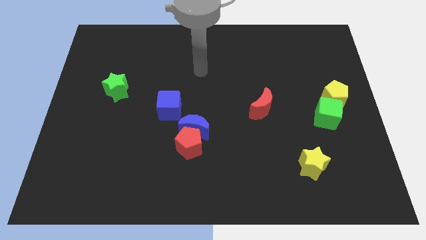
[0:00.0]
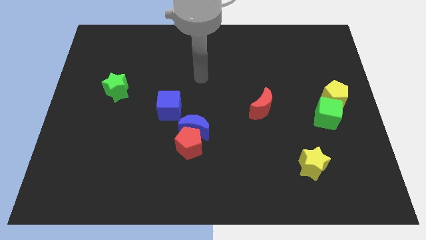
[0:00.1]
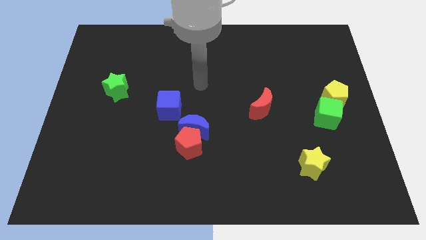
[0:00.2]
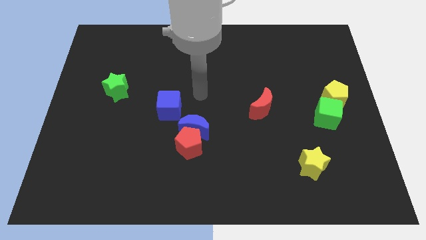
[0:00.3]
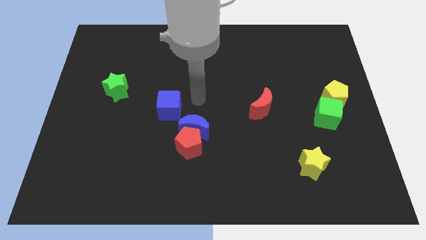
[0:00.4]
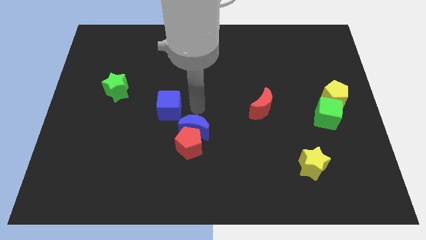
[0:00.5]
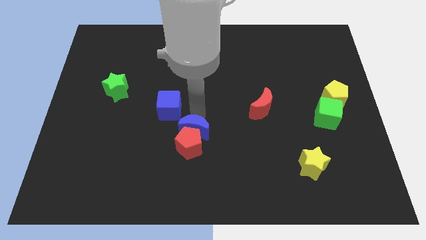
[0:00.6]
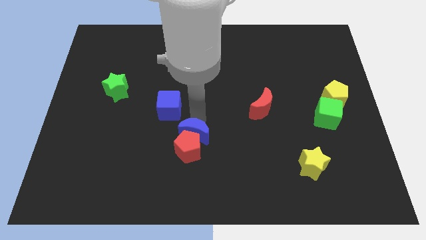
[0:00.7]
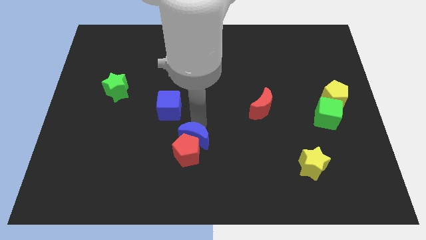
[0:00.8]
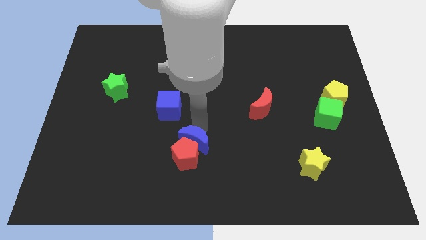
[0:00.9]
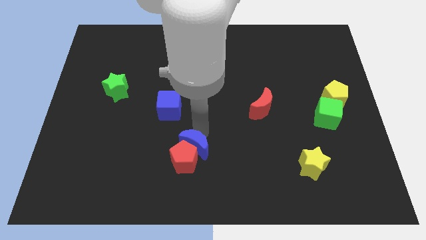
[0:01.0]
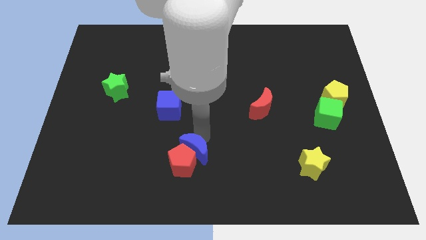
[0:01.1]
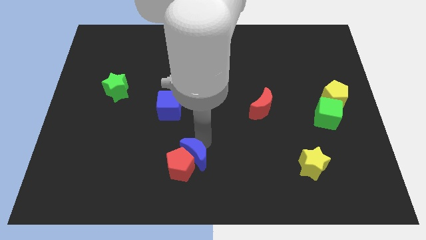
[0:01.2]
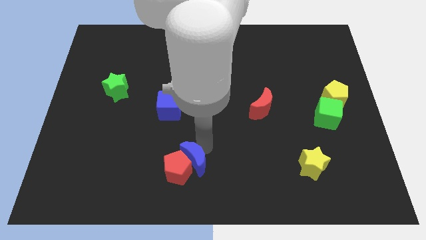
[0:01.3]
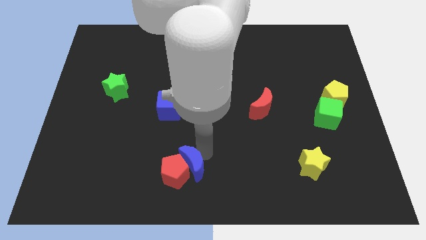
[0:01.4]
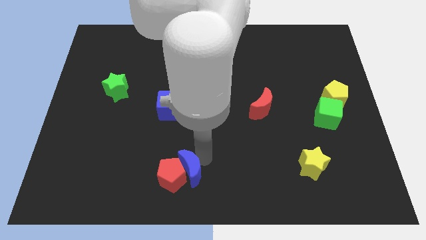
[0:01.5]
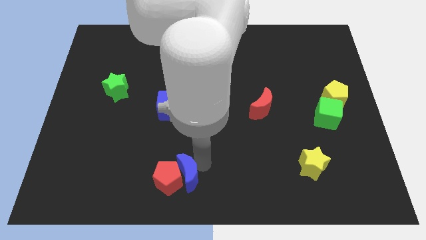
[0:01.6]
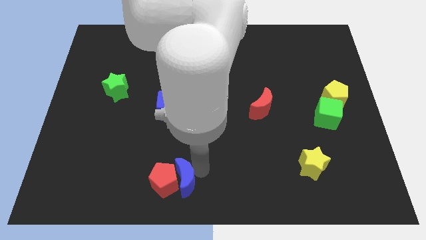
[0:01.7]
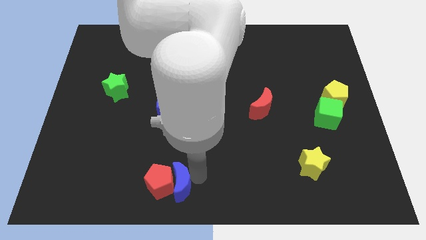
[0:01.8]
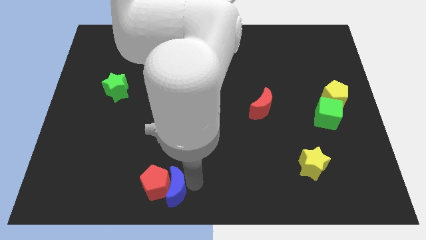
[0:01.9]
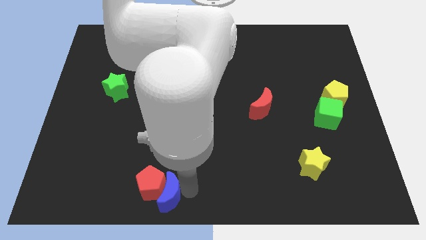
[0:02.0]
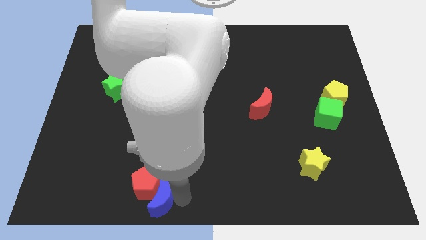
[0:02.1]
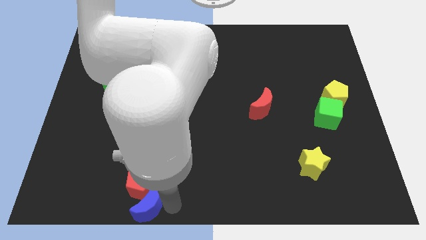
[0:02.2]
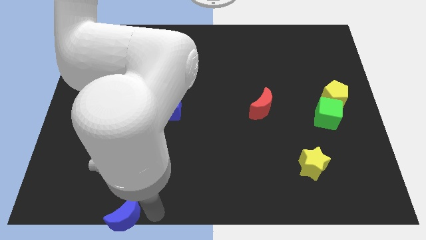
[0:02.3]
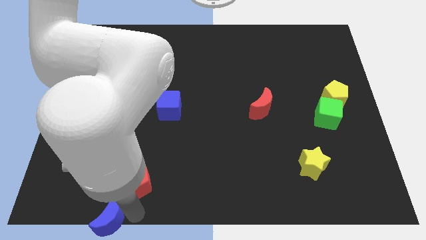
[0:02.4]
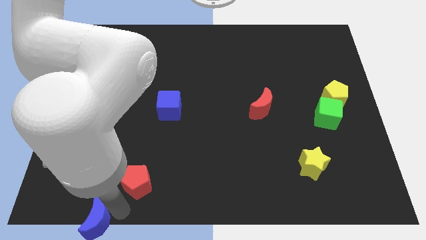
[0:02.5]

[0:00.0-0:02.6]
separate the red pentagon from the blue moon

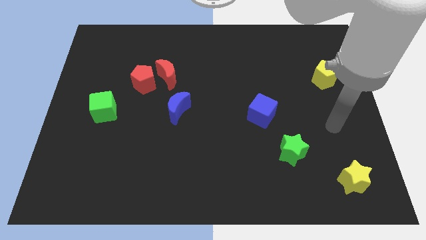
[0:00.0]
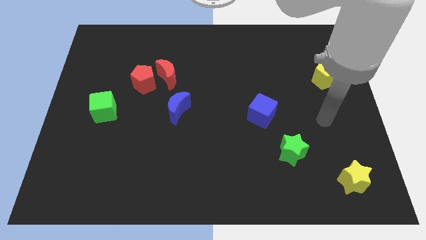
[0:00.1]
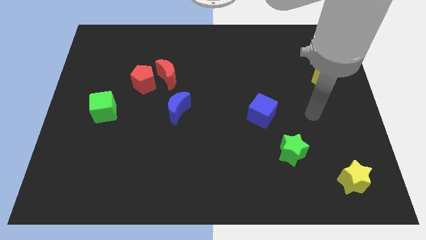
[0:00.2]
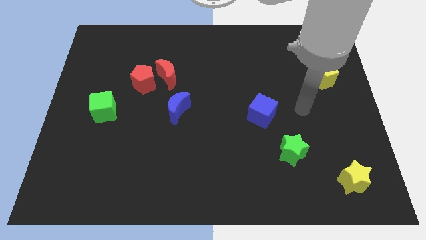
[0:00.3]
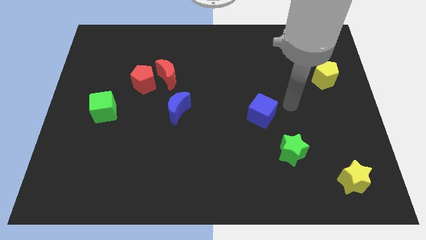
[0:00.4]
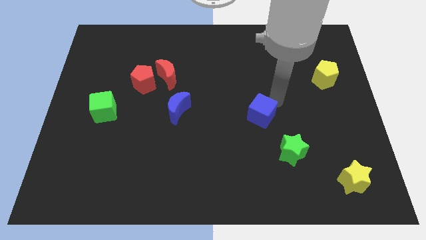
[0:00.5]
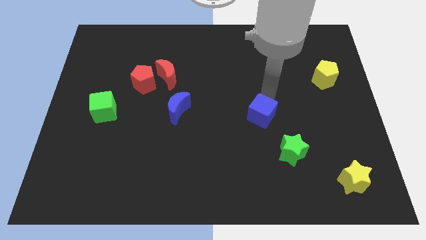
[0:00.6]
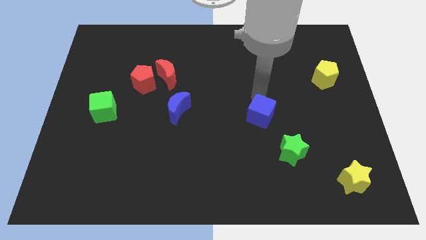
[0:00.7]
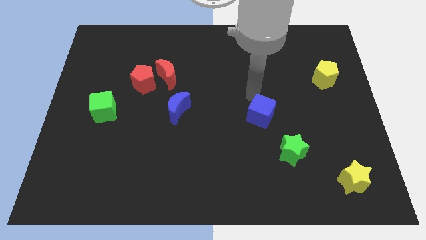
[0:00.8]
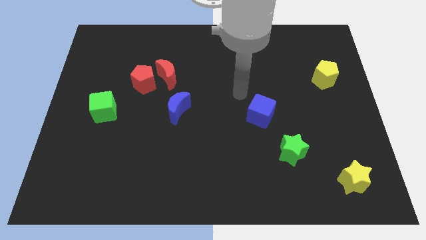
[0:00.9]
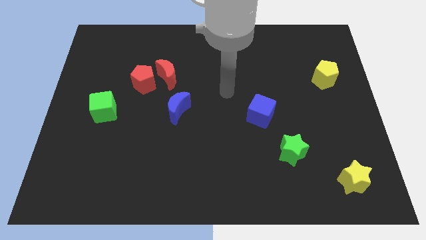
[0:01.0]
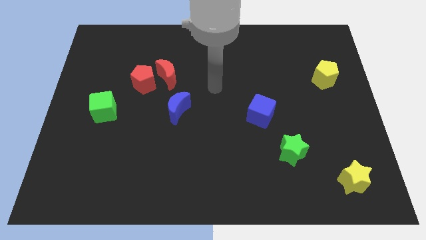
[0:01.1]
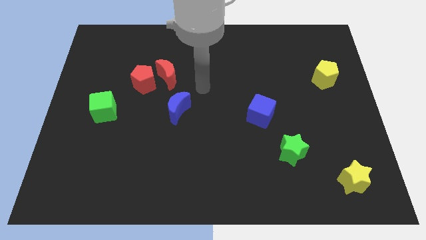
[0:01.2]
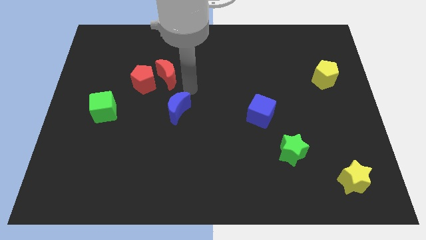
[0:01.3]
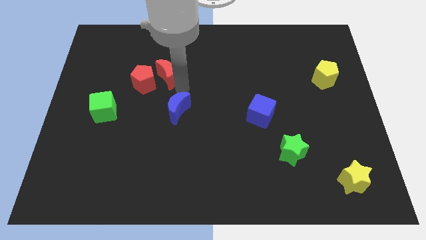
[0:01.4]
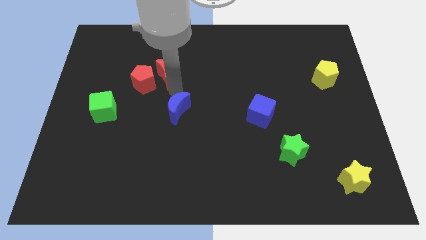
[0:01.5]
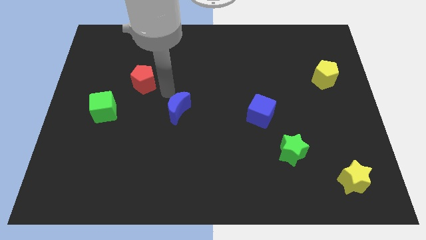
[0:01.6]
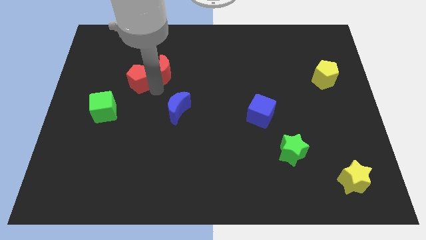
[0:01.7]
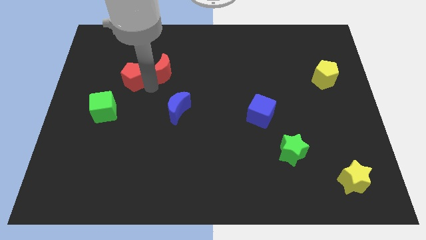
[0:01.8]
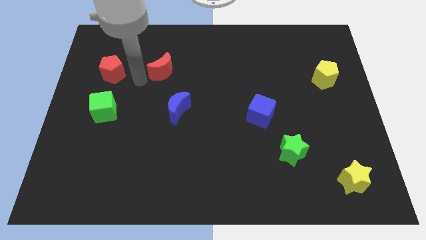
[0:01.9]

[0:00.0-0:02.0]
move the red moon away from the red pentagon

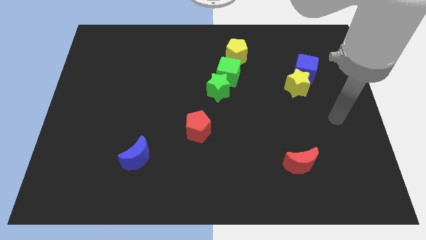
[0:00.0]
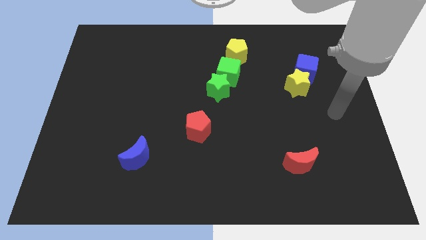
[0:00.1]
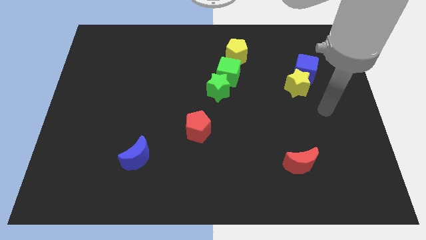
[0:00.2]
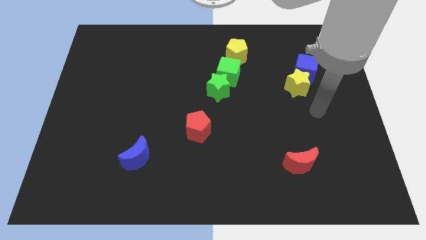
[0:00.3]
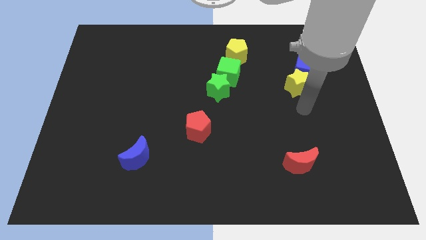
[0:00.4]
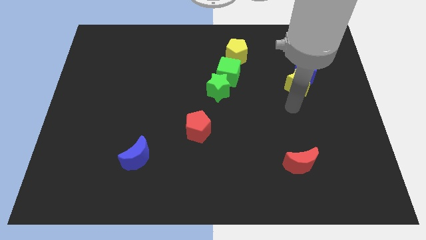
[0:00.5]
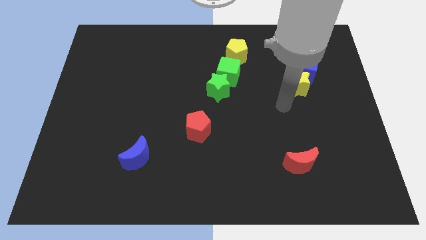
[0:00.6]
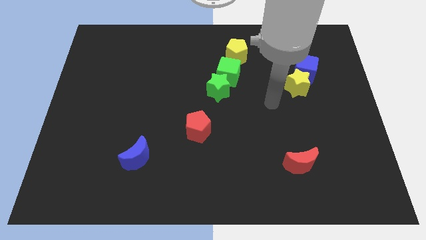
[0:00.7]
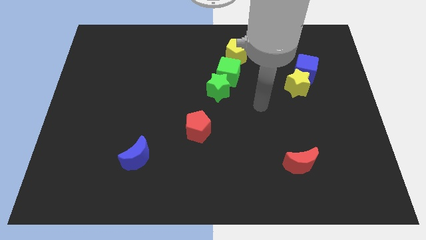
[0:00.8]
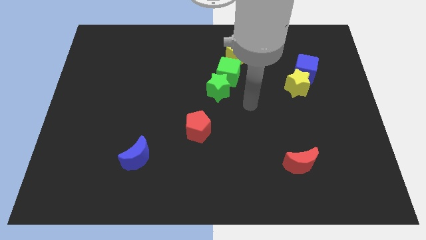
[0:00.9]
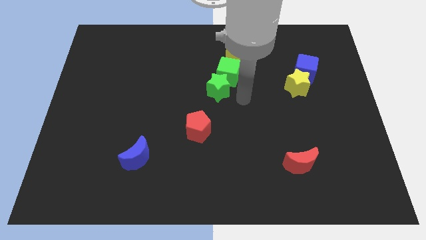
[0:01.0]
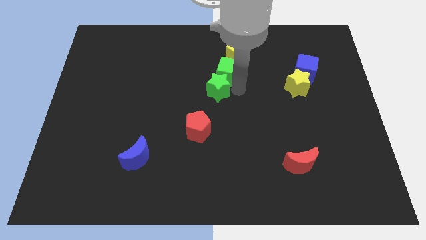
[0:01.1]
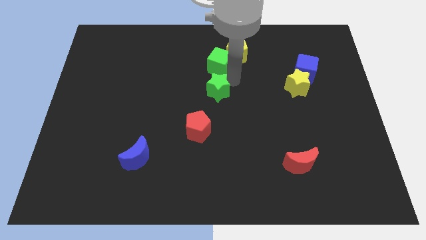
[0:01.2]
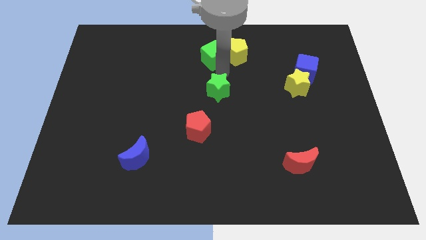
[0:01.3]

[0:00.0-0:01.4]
move the green star away from the green cube

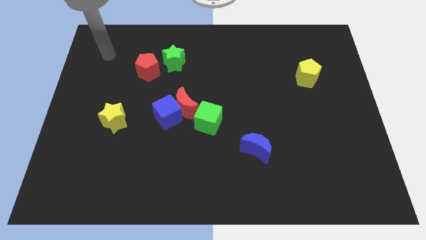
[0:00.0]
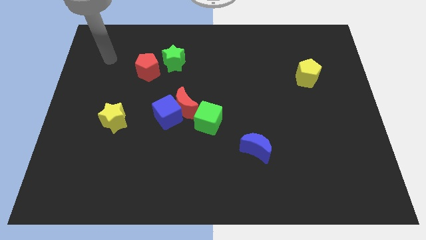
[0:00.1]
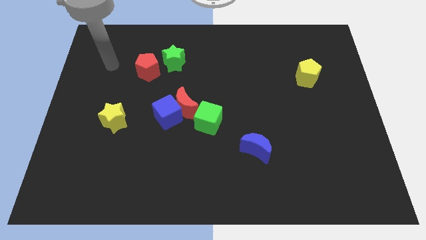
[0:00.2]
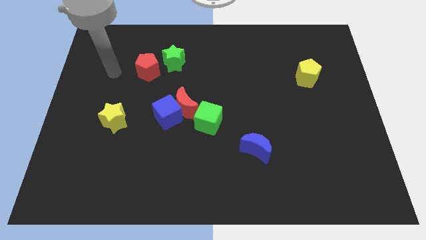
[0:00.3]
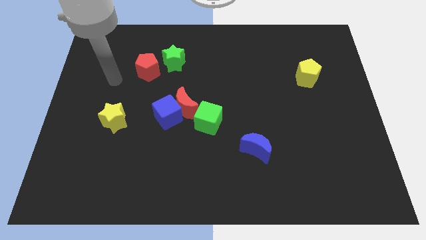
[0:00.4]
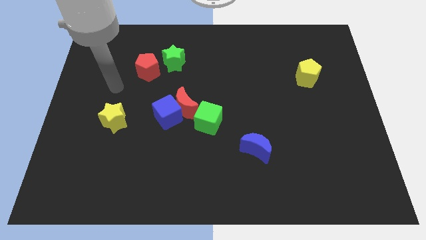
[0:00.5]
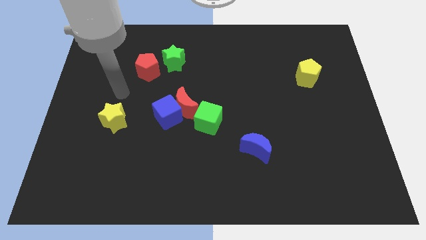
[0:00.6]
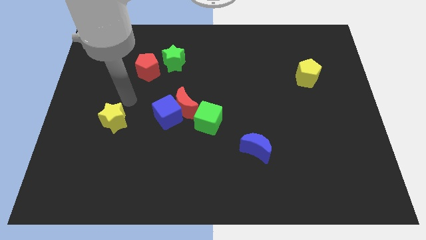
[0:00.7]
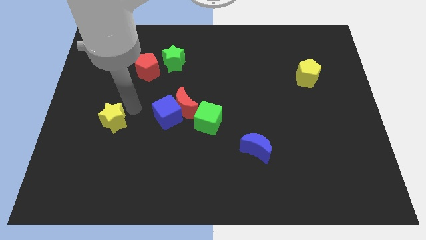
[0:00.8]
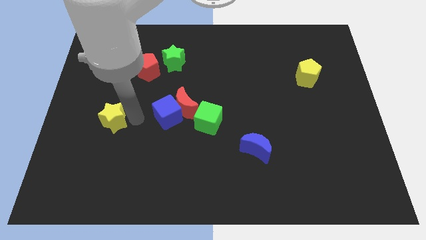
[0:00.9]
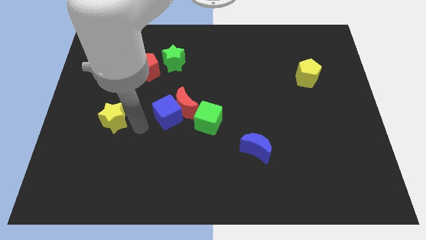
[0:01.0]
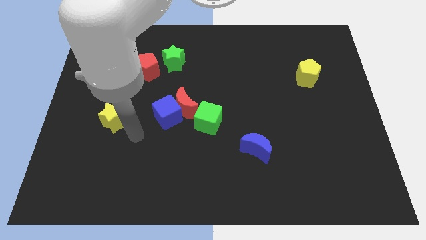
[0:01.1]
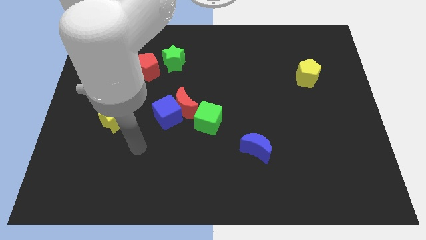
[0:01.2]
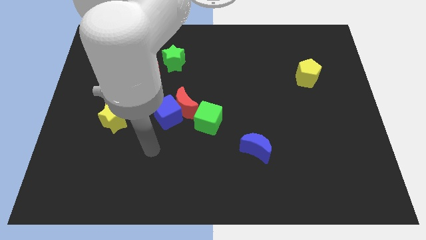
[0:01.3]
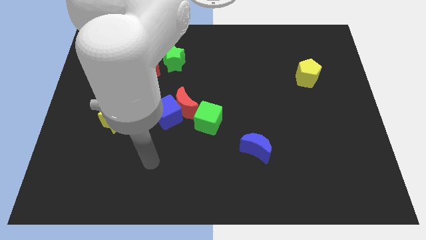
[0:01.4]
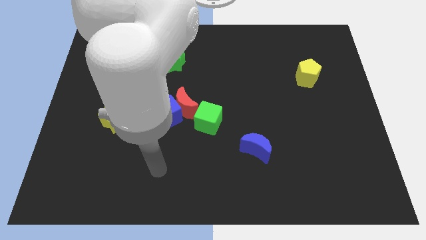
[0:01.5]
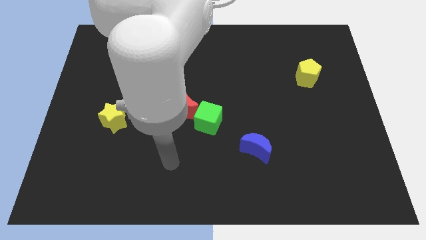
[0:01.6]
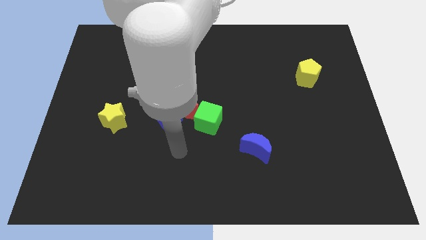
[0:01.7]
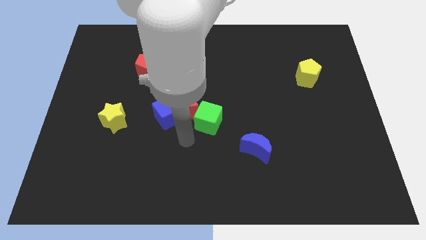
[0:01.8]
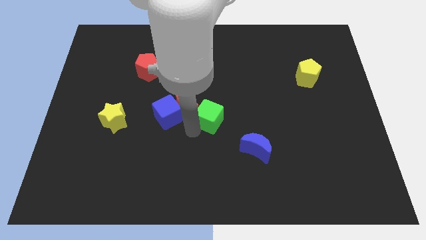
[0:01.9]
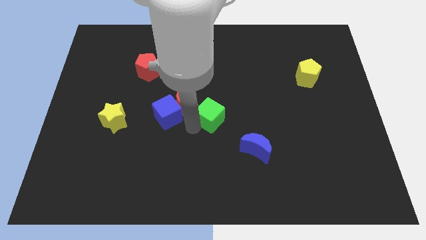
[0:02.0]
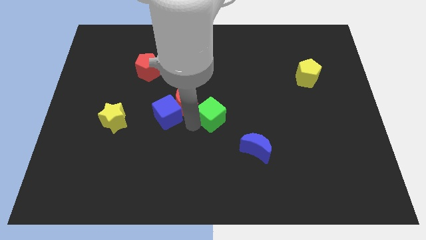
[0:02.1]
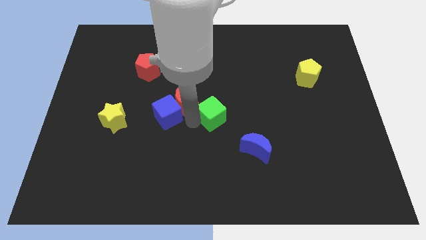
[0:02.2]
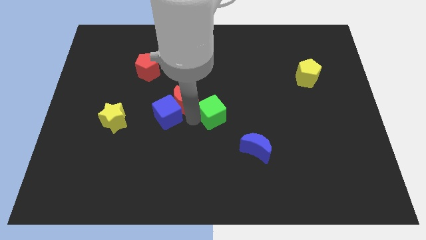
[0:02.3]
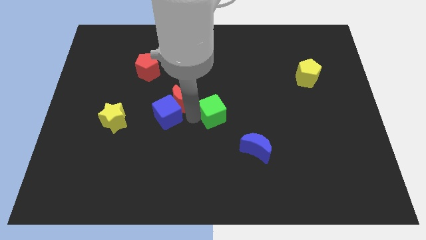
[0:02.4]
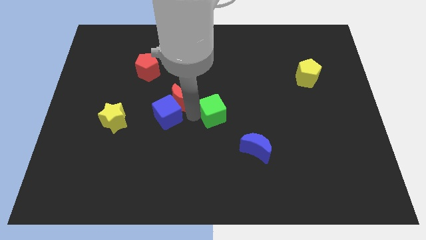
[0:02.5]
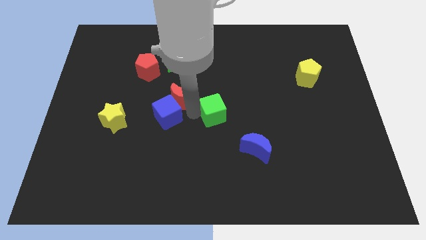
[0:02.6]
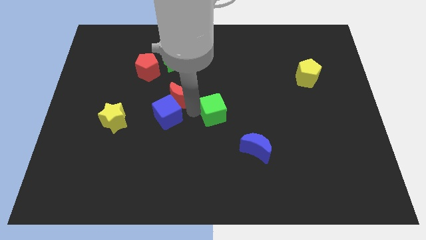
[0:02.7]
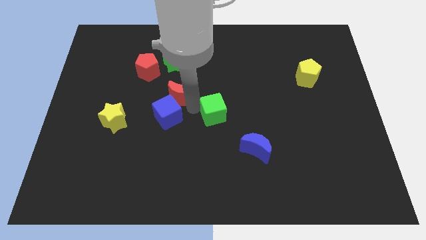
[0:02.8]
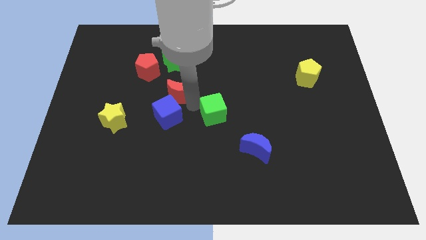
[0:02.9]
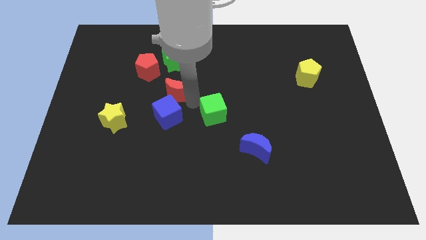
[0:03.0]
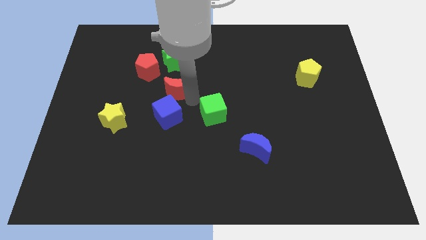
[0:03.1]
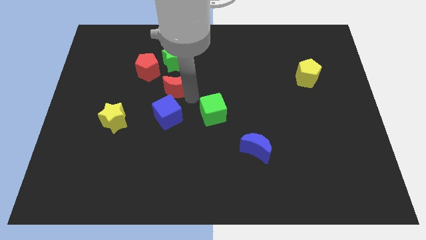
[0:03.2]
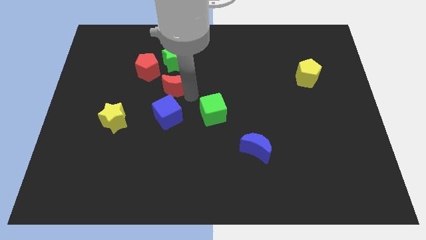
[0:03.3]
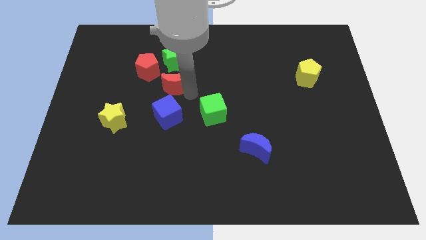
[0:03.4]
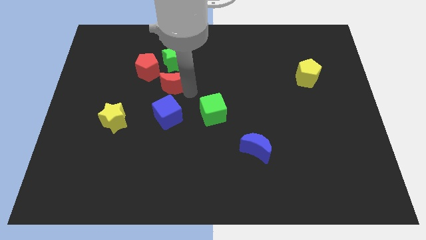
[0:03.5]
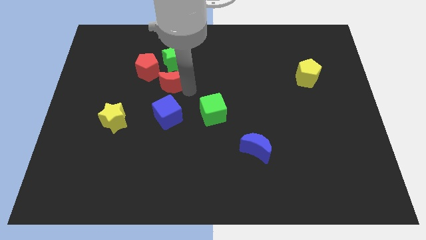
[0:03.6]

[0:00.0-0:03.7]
pull the red moon apart from the blue cube and green cube
